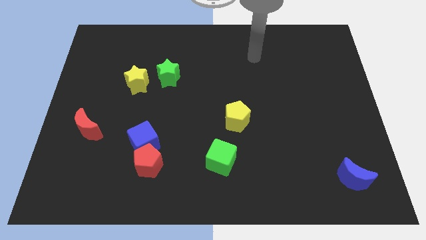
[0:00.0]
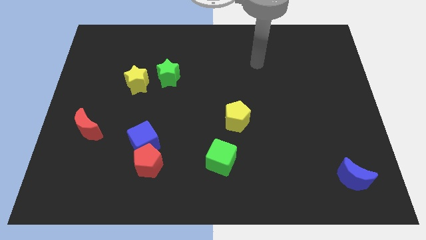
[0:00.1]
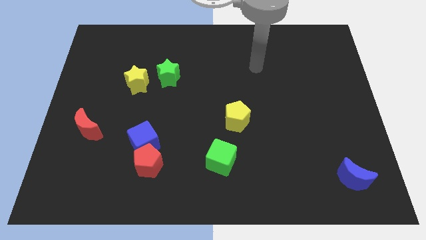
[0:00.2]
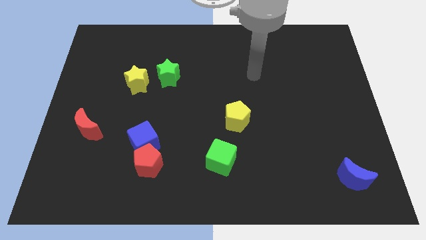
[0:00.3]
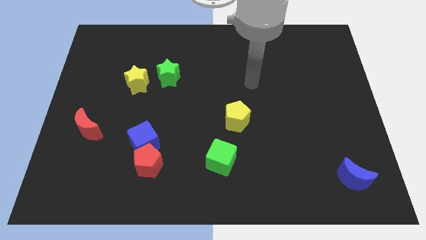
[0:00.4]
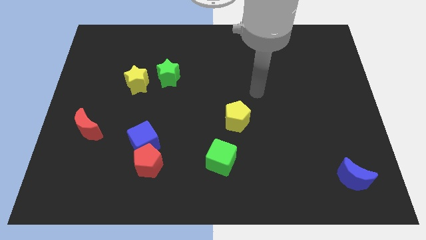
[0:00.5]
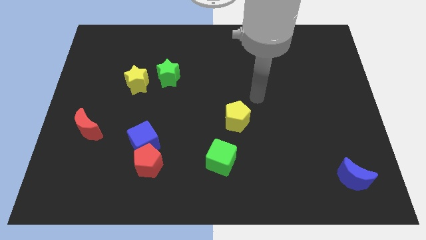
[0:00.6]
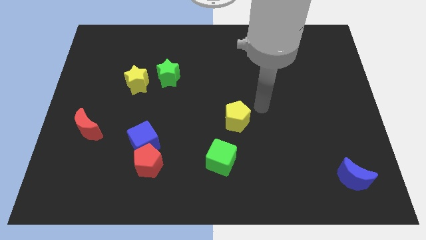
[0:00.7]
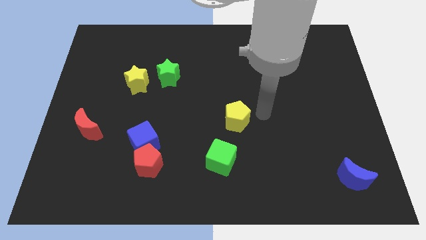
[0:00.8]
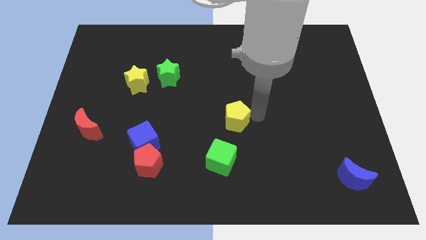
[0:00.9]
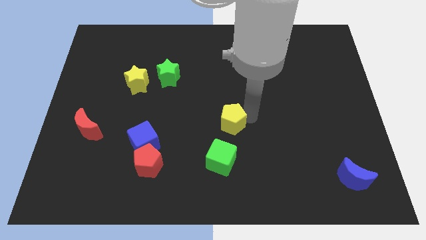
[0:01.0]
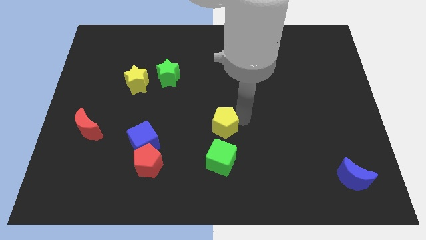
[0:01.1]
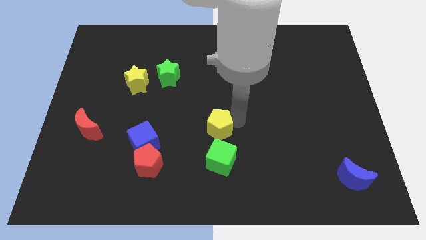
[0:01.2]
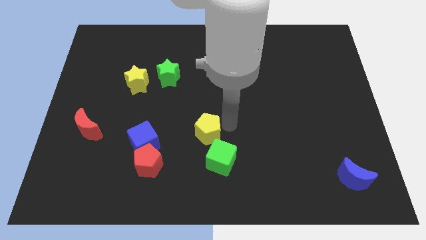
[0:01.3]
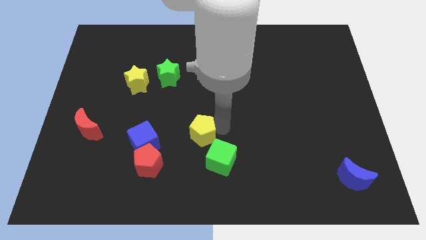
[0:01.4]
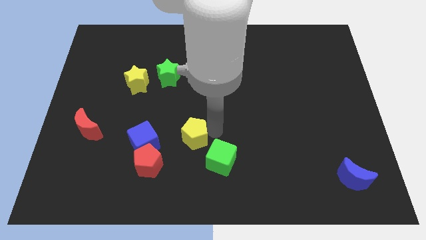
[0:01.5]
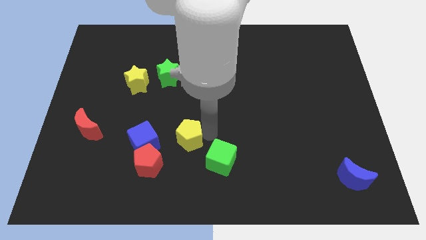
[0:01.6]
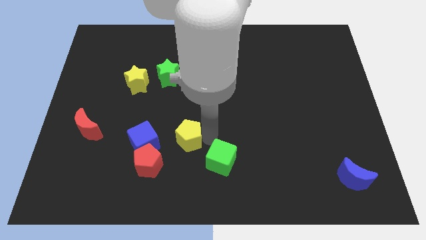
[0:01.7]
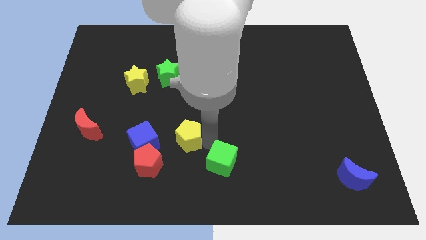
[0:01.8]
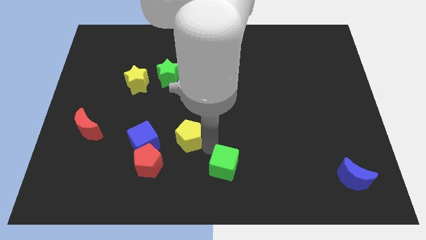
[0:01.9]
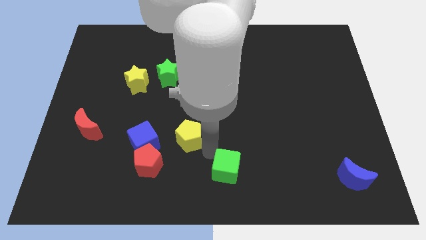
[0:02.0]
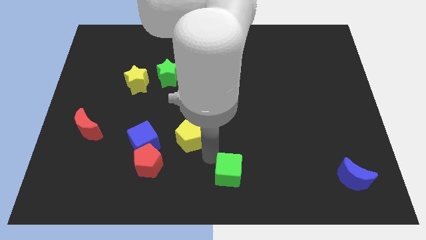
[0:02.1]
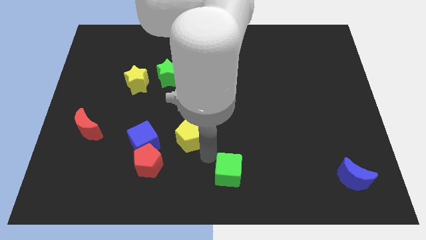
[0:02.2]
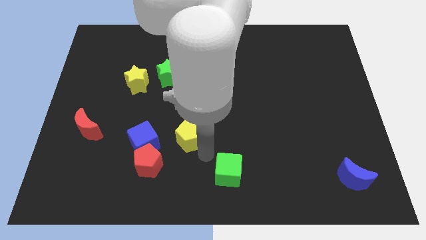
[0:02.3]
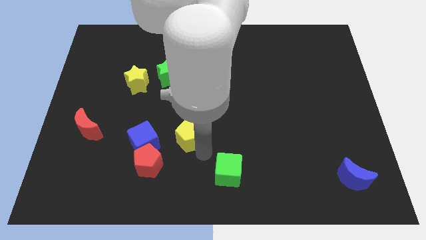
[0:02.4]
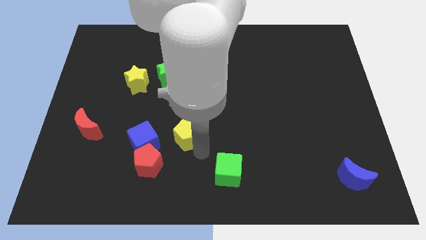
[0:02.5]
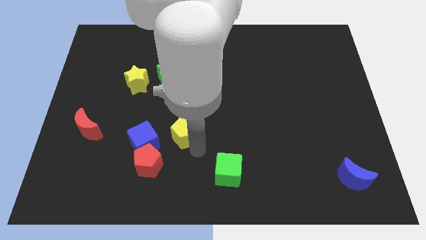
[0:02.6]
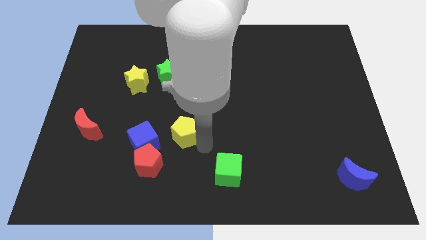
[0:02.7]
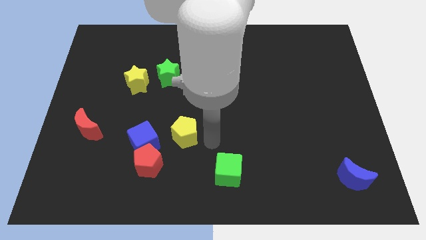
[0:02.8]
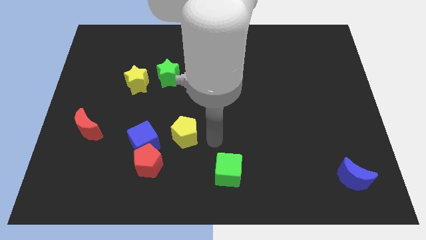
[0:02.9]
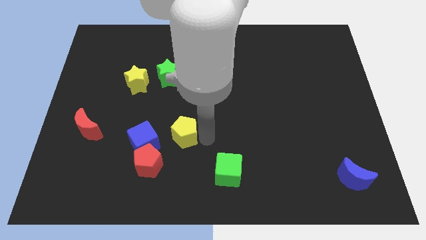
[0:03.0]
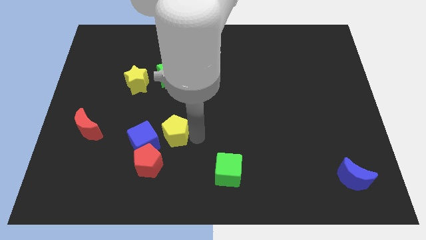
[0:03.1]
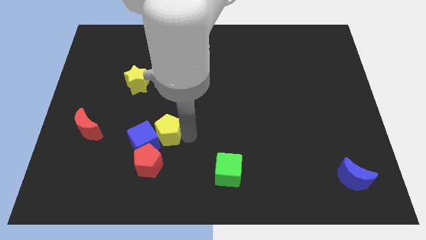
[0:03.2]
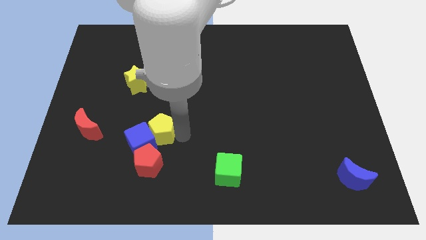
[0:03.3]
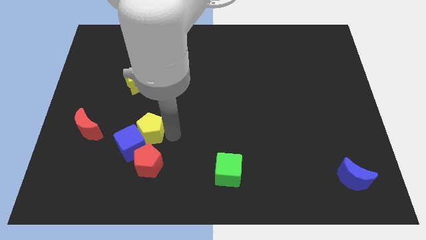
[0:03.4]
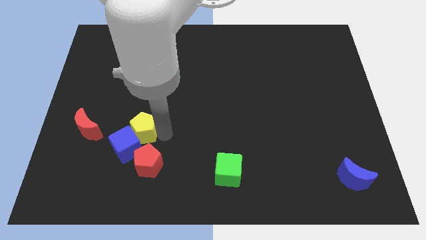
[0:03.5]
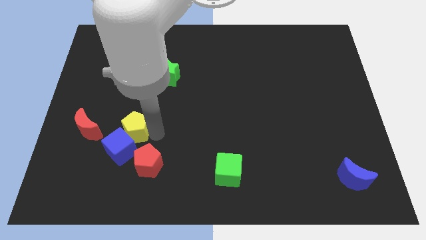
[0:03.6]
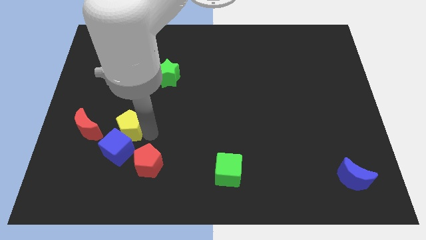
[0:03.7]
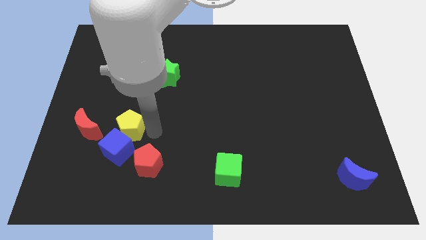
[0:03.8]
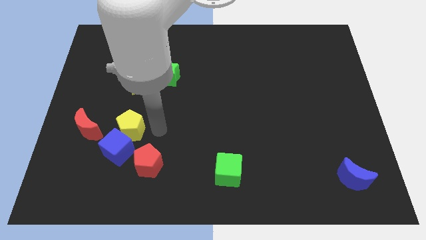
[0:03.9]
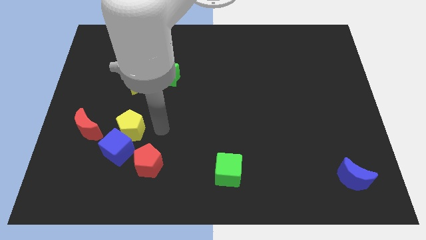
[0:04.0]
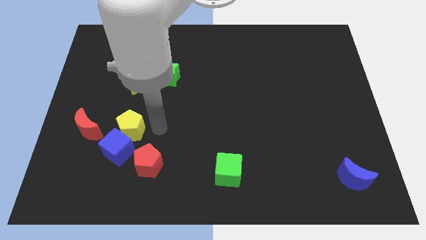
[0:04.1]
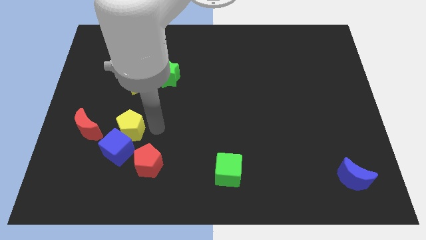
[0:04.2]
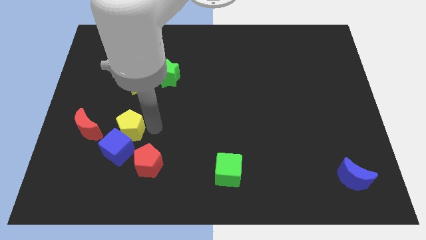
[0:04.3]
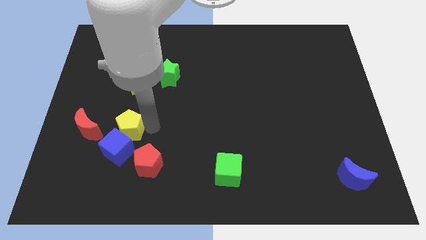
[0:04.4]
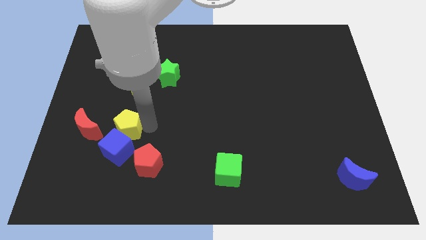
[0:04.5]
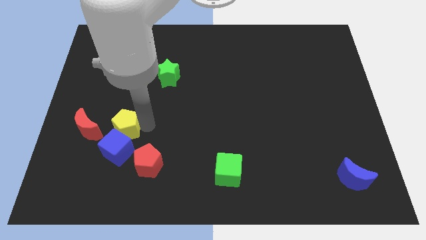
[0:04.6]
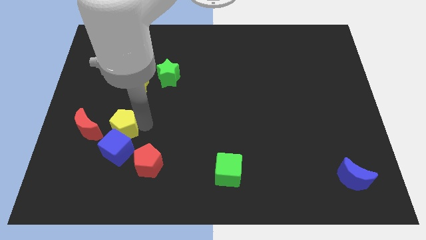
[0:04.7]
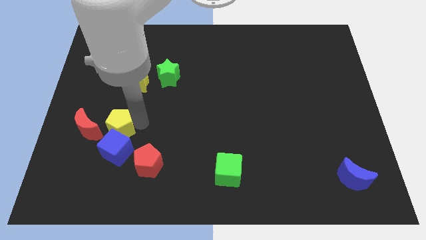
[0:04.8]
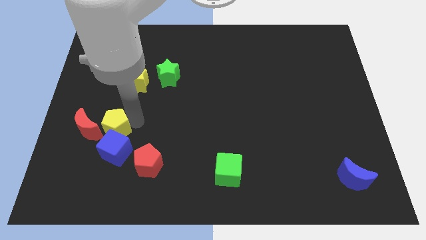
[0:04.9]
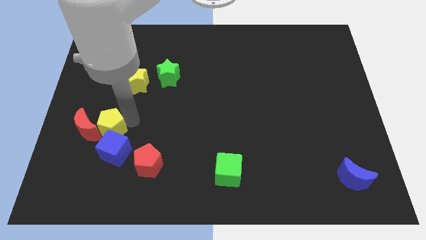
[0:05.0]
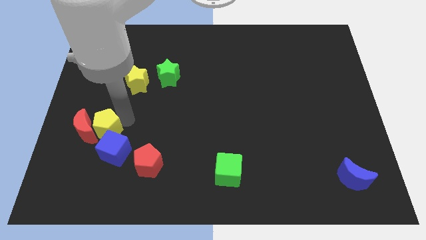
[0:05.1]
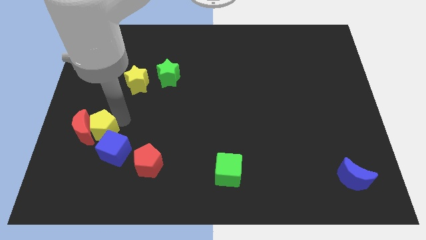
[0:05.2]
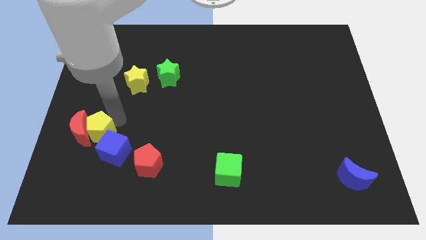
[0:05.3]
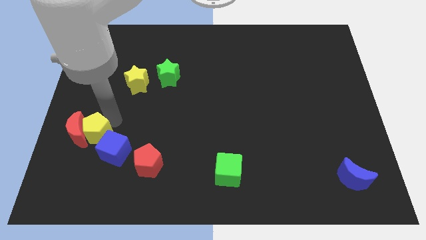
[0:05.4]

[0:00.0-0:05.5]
slide the yellow pentagon left of the blue cube

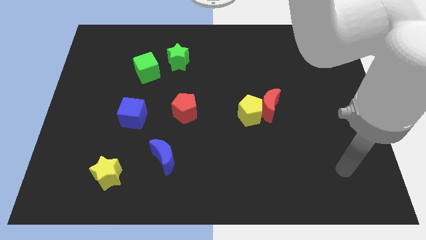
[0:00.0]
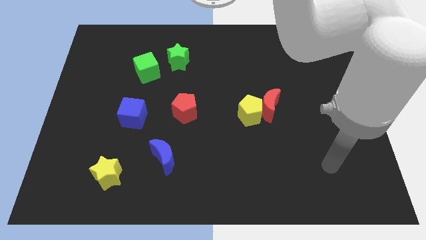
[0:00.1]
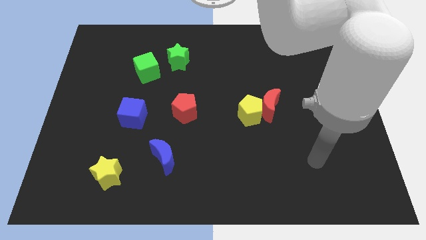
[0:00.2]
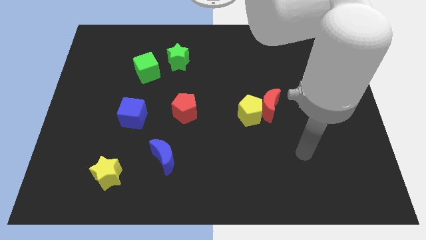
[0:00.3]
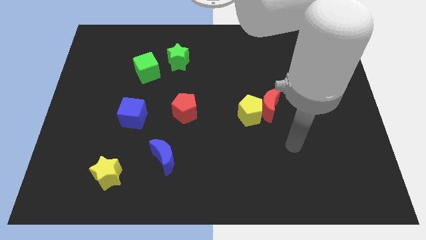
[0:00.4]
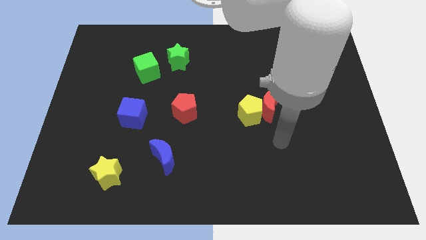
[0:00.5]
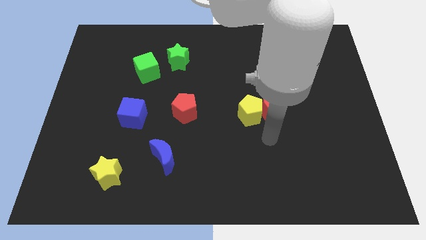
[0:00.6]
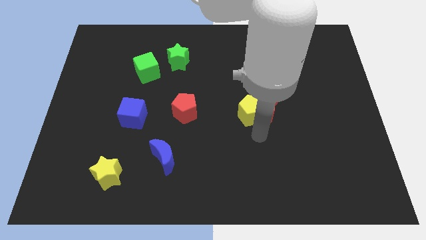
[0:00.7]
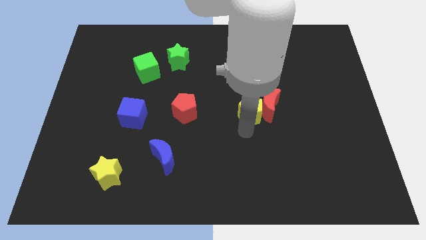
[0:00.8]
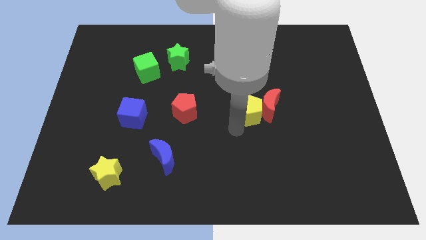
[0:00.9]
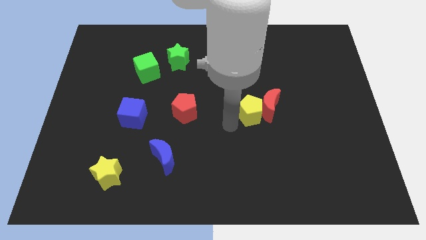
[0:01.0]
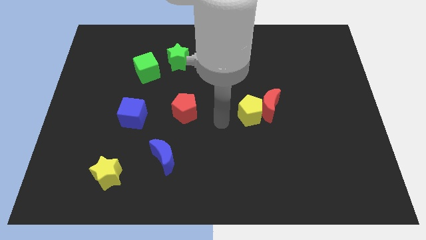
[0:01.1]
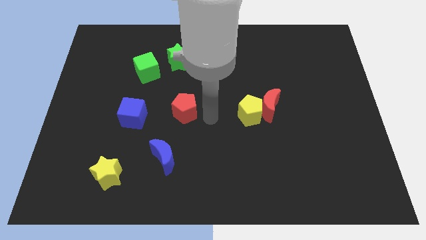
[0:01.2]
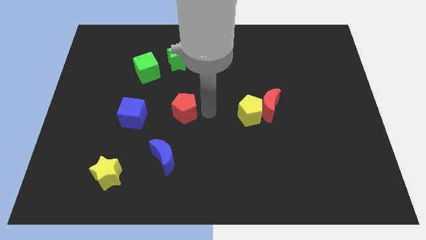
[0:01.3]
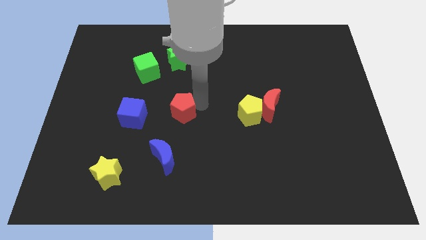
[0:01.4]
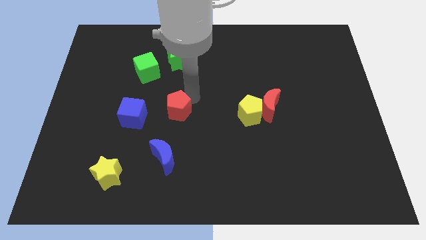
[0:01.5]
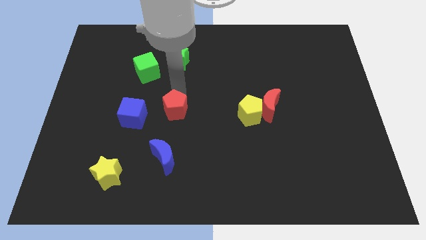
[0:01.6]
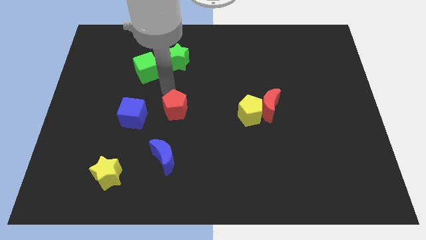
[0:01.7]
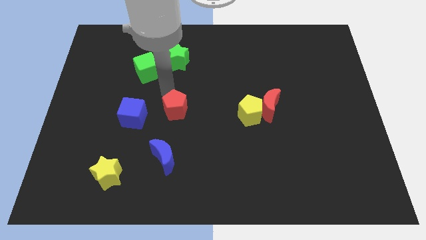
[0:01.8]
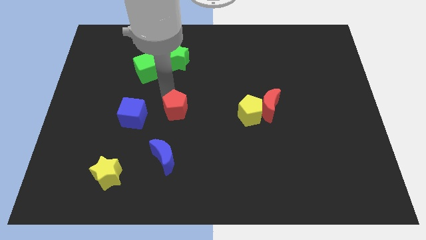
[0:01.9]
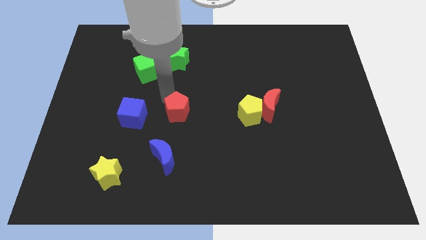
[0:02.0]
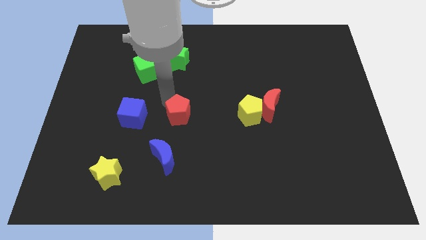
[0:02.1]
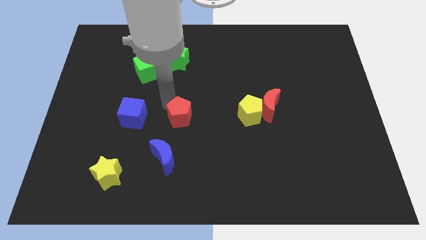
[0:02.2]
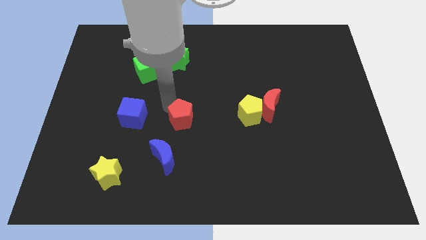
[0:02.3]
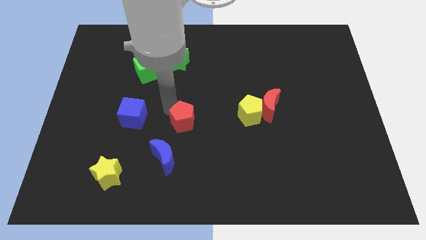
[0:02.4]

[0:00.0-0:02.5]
slide the red pentagon diagonally up and to the right of the blue moon
